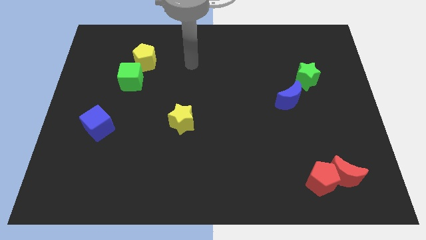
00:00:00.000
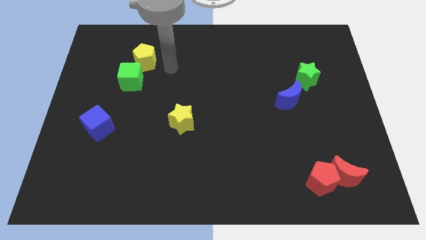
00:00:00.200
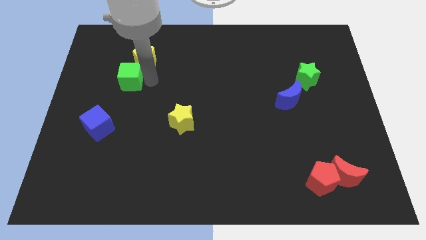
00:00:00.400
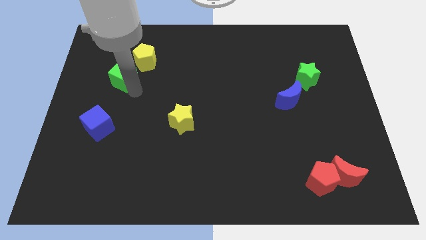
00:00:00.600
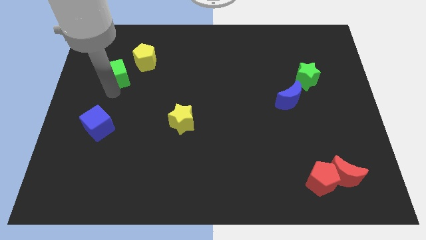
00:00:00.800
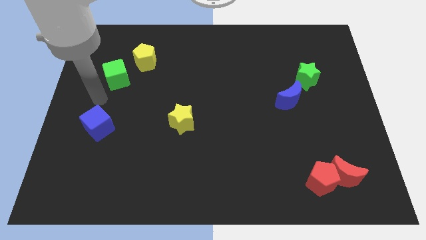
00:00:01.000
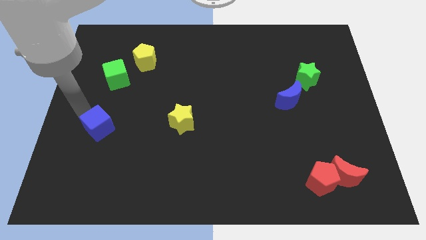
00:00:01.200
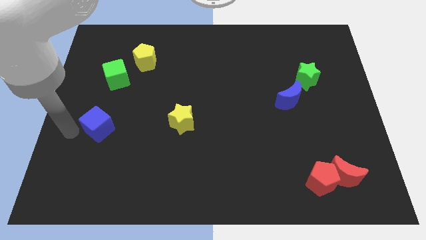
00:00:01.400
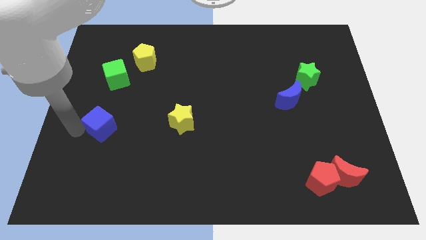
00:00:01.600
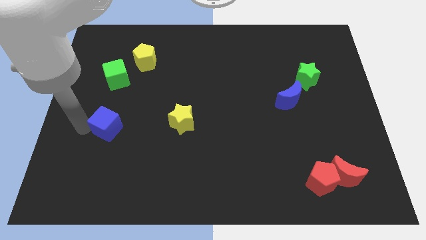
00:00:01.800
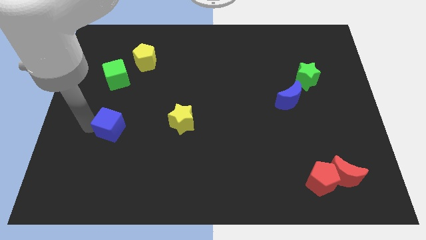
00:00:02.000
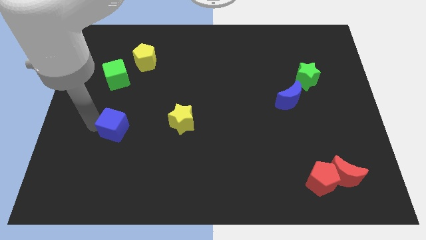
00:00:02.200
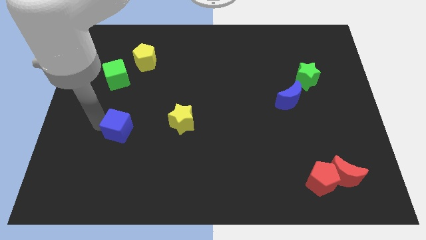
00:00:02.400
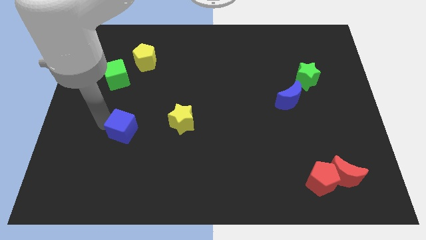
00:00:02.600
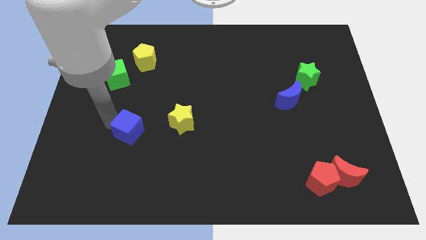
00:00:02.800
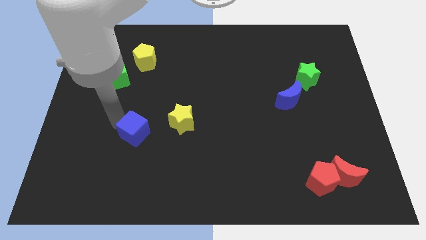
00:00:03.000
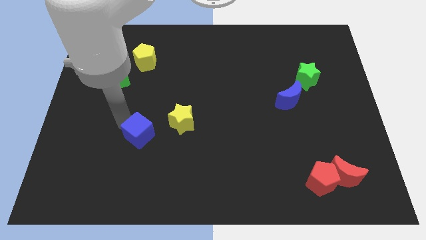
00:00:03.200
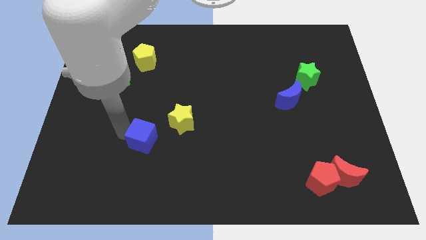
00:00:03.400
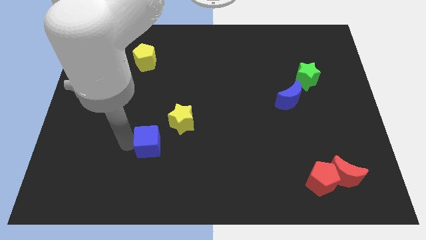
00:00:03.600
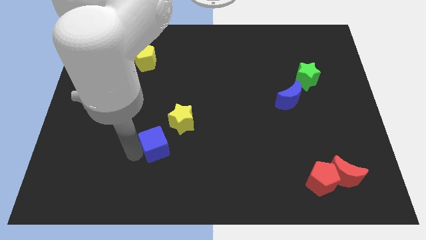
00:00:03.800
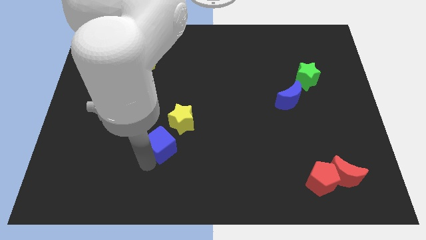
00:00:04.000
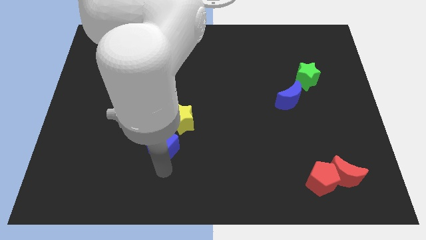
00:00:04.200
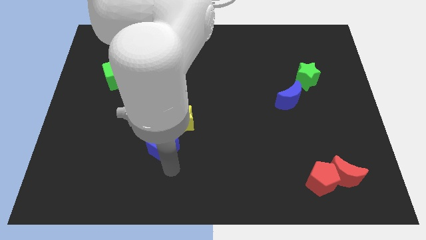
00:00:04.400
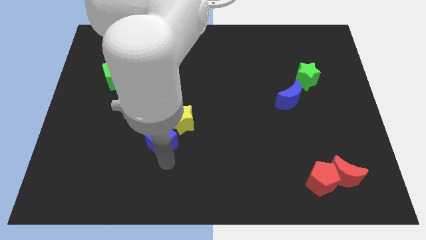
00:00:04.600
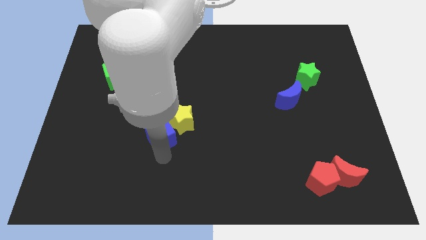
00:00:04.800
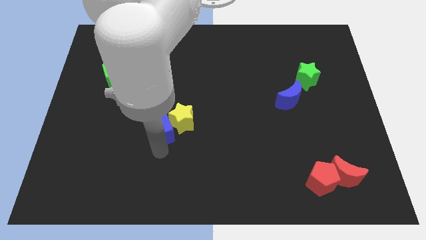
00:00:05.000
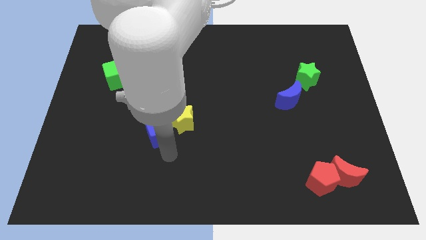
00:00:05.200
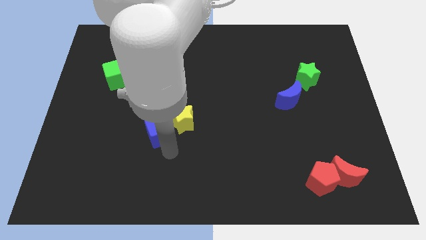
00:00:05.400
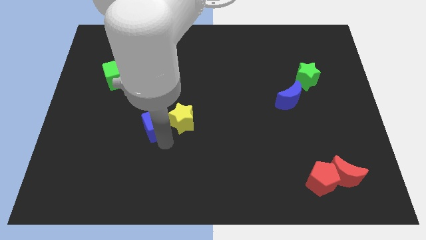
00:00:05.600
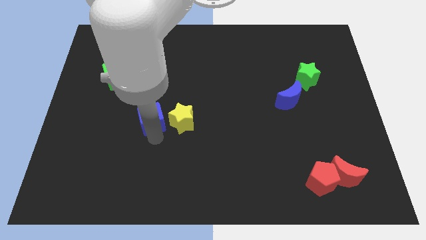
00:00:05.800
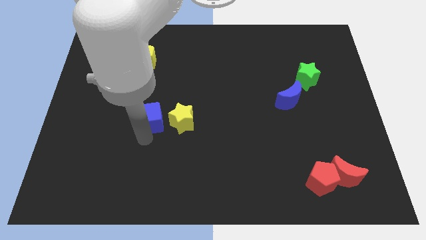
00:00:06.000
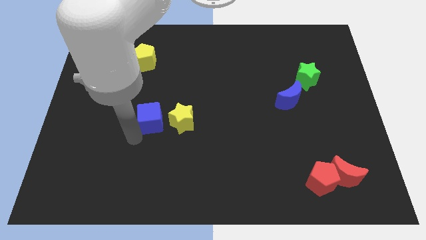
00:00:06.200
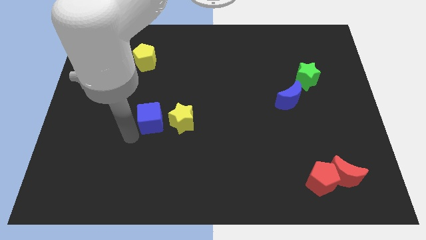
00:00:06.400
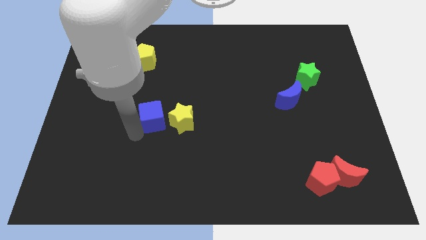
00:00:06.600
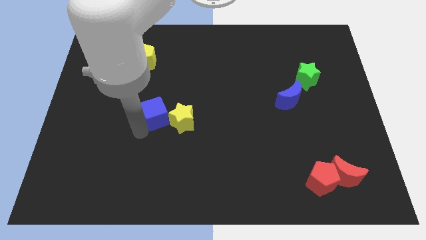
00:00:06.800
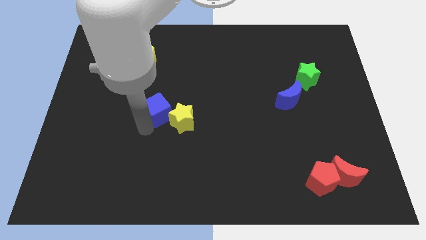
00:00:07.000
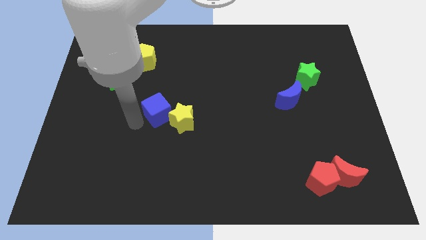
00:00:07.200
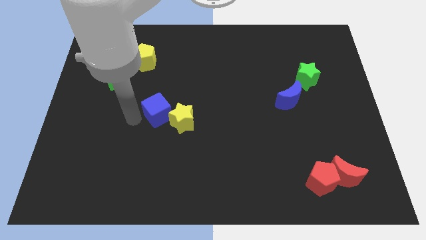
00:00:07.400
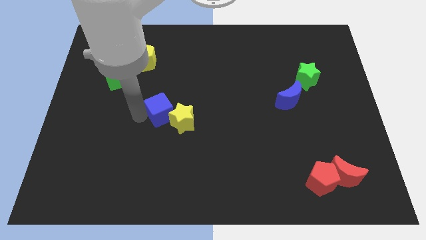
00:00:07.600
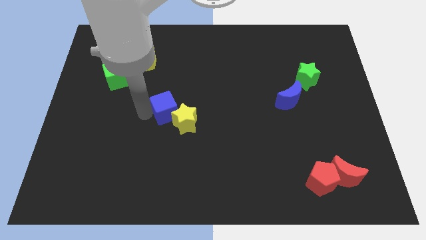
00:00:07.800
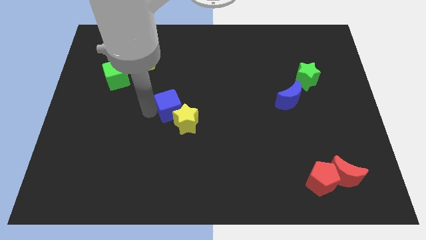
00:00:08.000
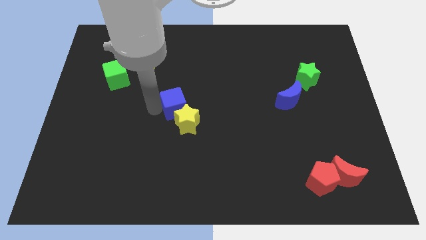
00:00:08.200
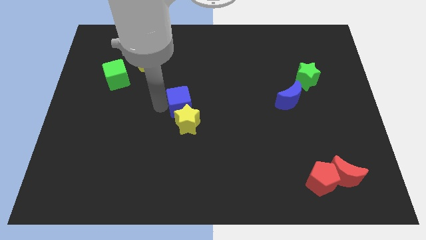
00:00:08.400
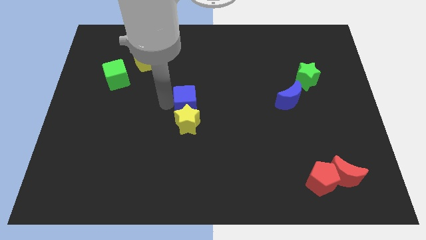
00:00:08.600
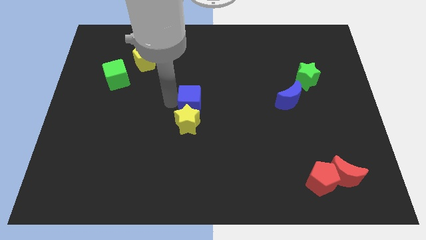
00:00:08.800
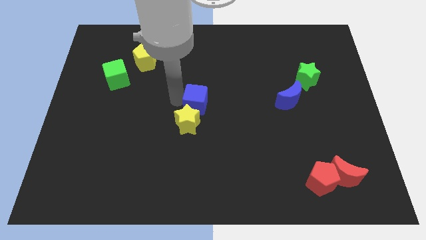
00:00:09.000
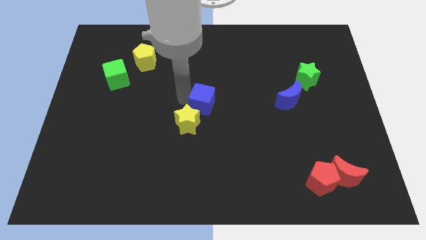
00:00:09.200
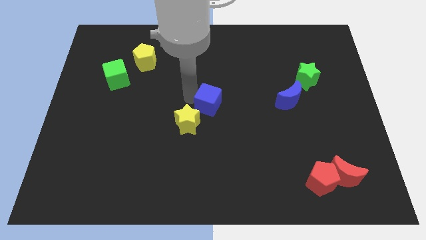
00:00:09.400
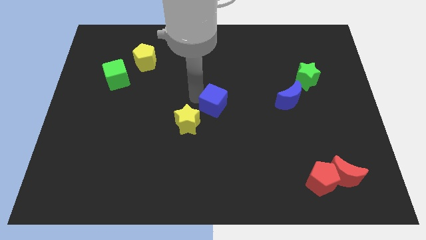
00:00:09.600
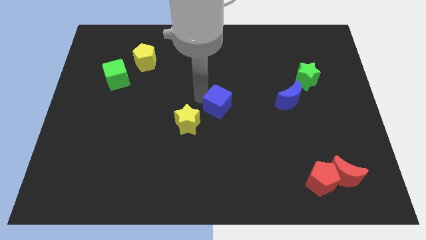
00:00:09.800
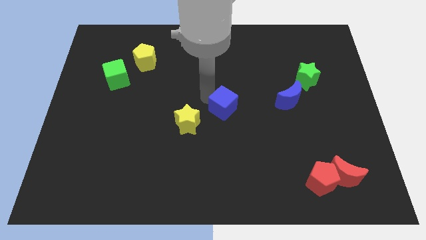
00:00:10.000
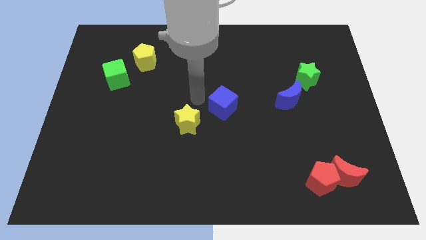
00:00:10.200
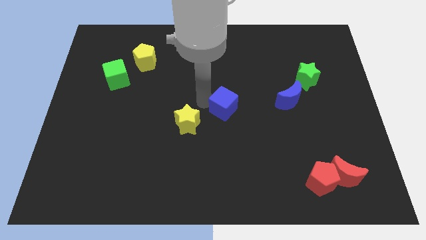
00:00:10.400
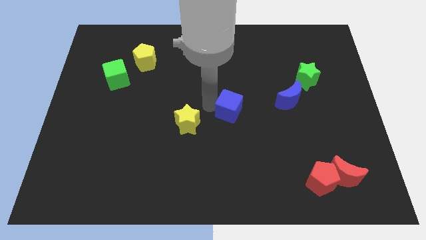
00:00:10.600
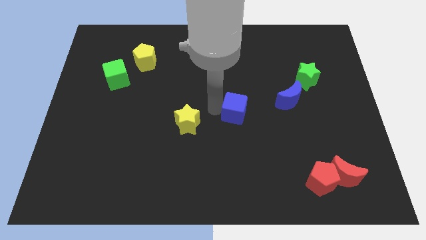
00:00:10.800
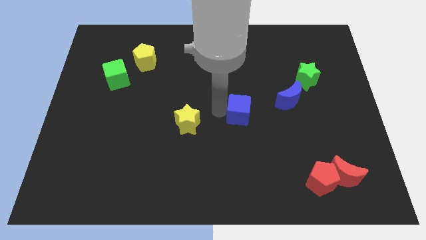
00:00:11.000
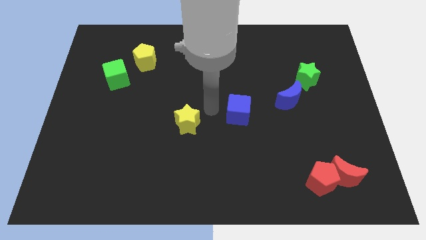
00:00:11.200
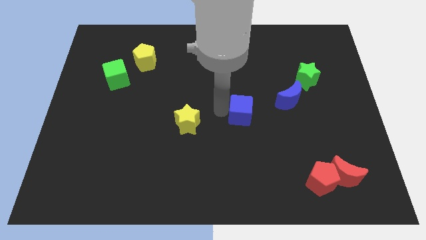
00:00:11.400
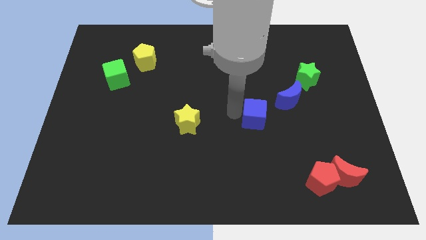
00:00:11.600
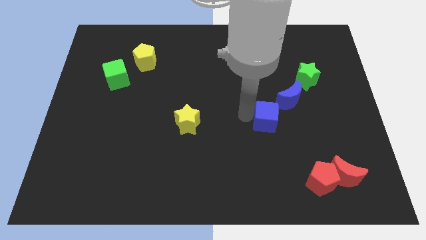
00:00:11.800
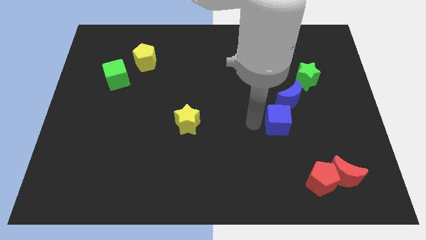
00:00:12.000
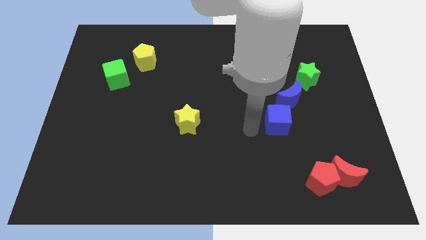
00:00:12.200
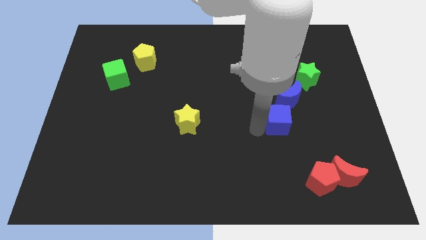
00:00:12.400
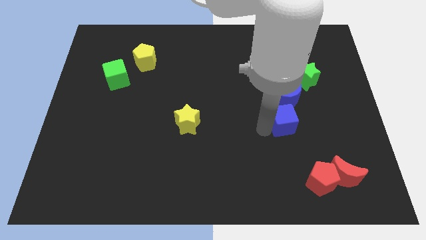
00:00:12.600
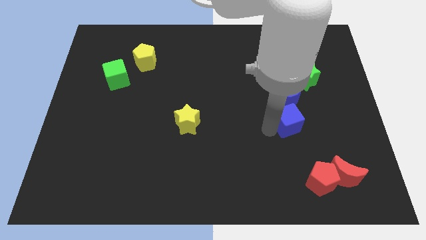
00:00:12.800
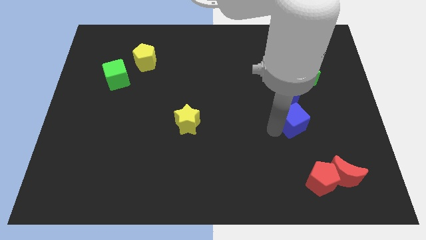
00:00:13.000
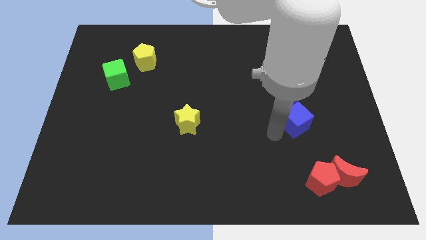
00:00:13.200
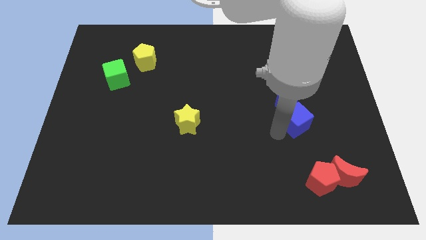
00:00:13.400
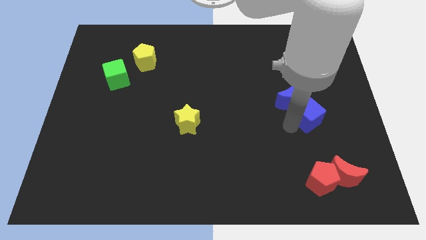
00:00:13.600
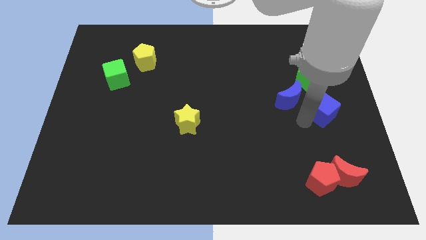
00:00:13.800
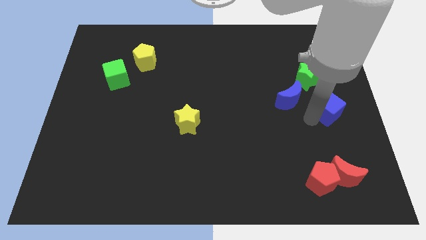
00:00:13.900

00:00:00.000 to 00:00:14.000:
put the blue cube diagonally down and to the right of the green star

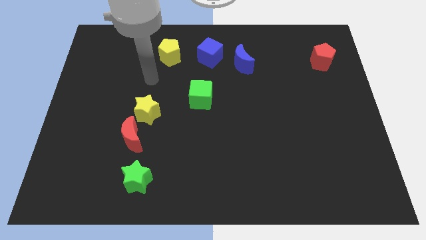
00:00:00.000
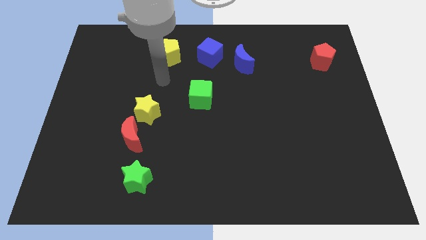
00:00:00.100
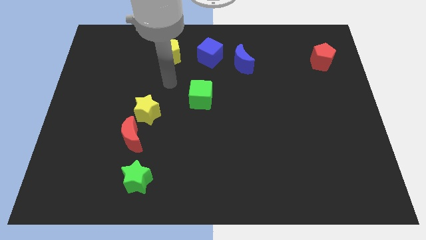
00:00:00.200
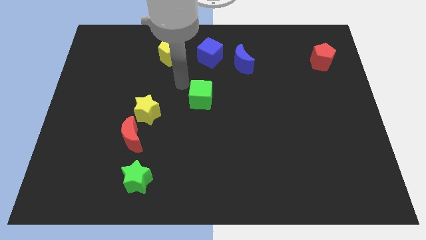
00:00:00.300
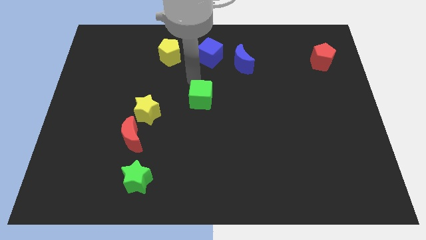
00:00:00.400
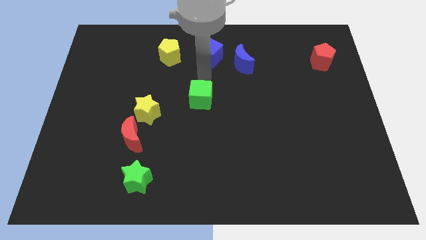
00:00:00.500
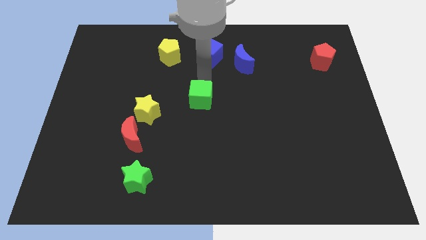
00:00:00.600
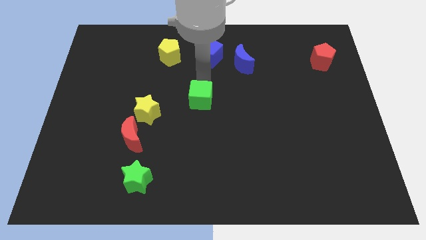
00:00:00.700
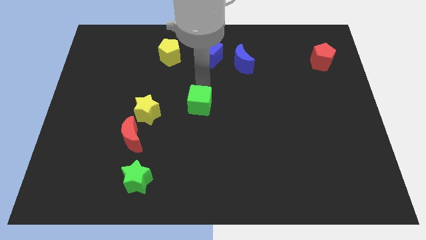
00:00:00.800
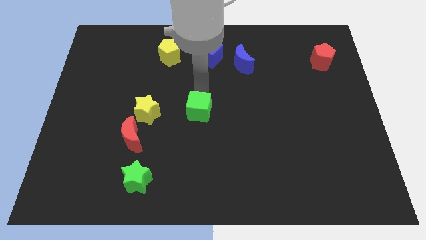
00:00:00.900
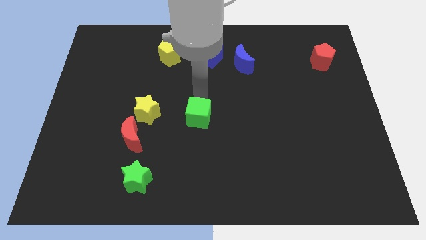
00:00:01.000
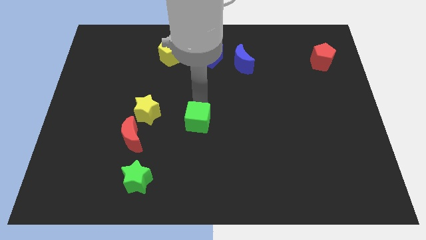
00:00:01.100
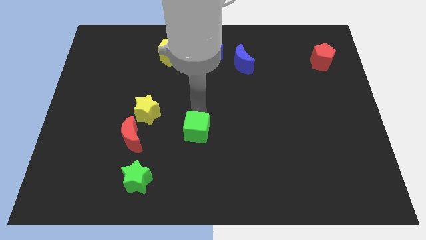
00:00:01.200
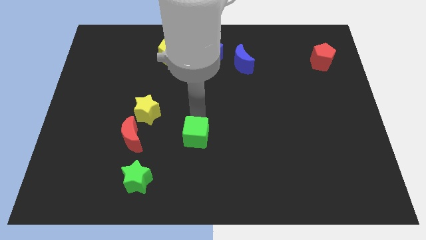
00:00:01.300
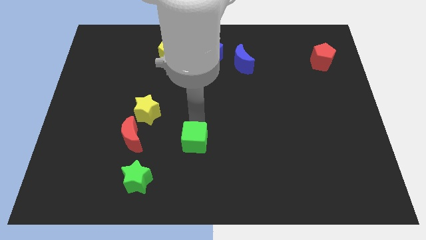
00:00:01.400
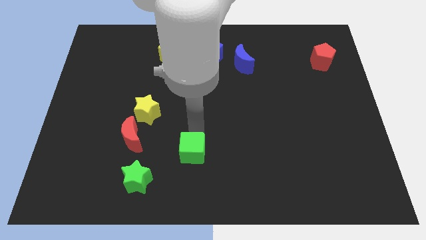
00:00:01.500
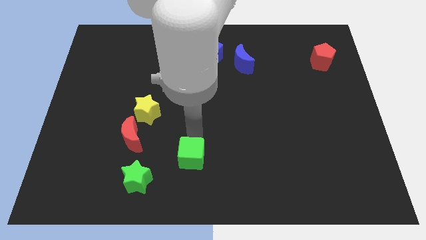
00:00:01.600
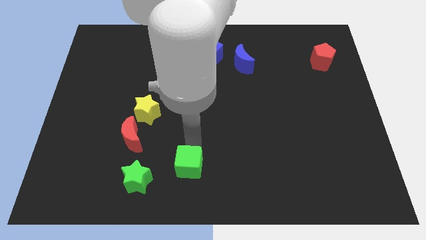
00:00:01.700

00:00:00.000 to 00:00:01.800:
slide the green cube to the right side of the green star
